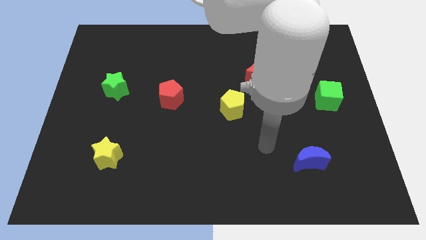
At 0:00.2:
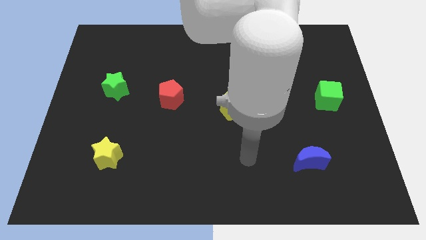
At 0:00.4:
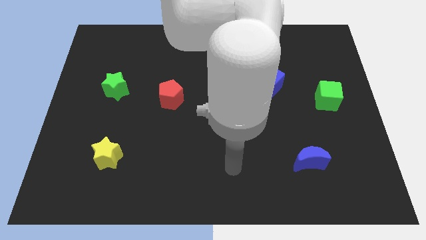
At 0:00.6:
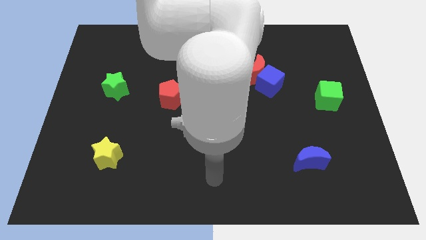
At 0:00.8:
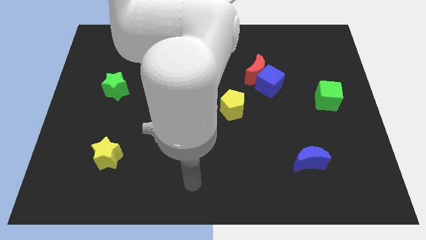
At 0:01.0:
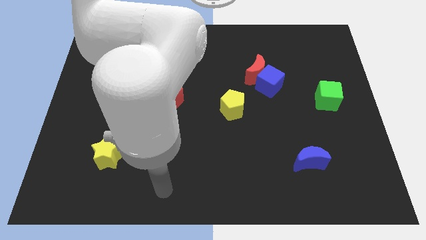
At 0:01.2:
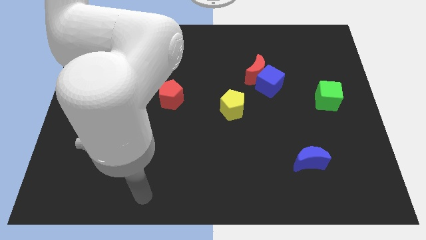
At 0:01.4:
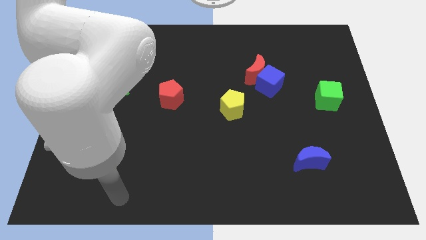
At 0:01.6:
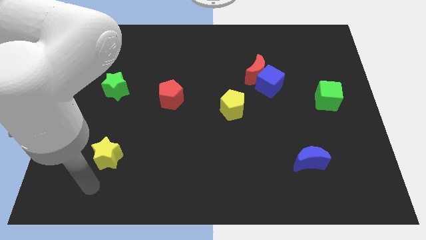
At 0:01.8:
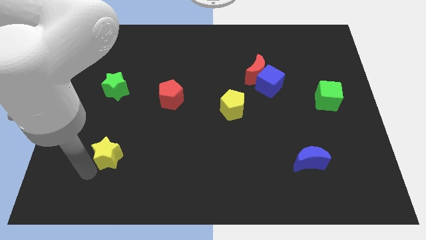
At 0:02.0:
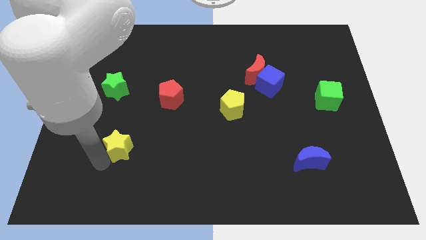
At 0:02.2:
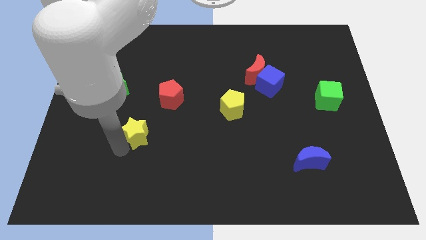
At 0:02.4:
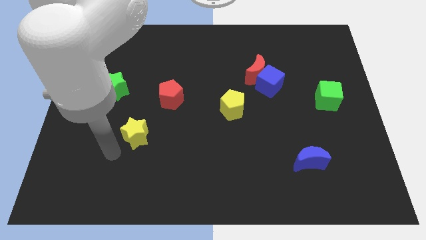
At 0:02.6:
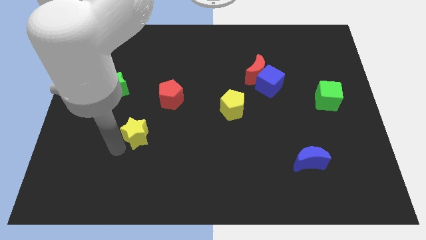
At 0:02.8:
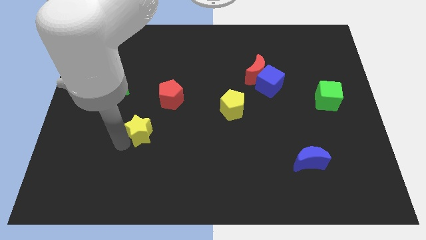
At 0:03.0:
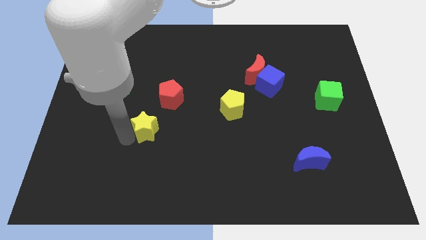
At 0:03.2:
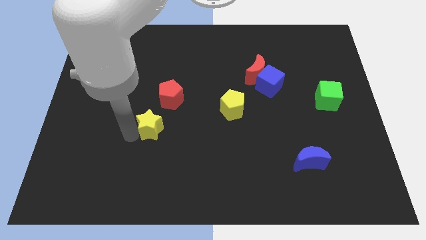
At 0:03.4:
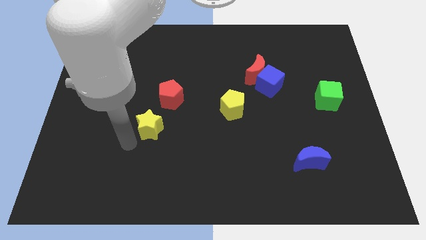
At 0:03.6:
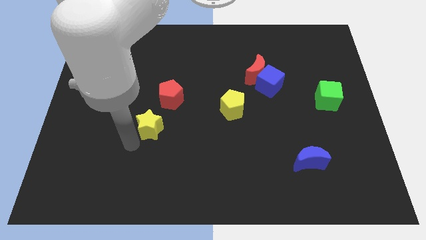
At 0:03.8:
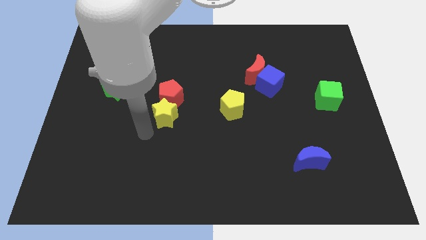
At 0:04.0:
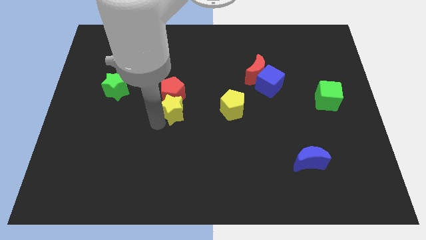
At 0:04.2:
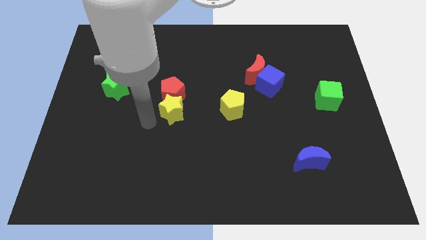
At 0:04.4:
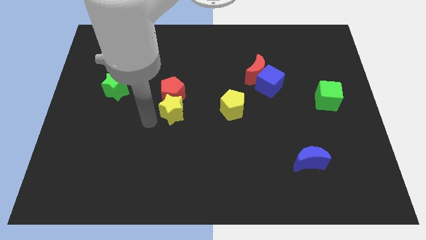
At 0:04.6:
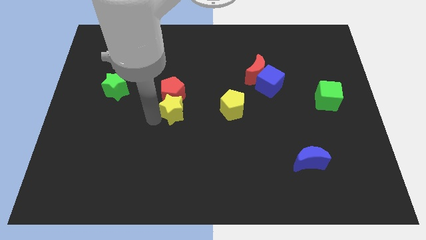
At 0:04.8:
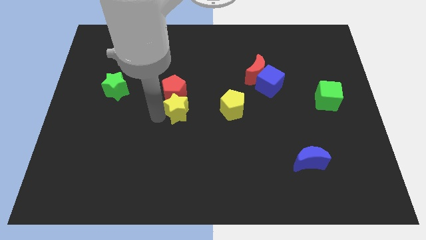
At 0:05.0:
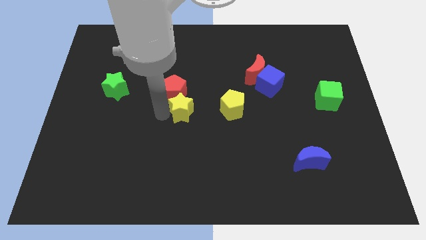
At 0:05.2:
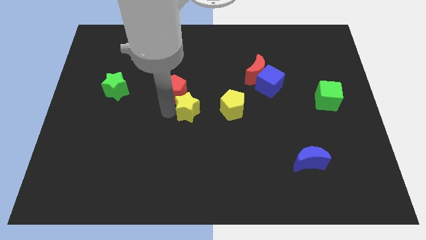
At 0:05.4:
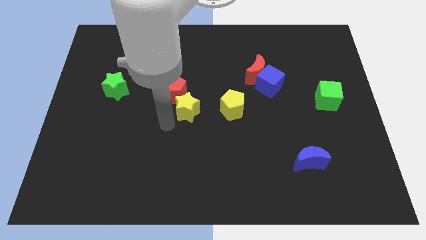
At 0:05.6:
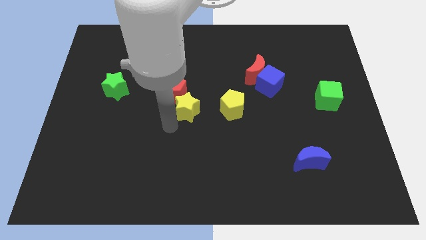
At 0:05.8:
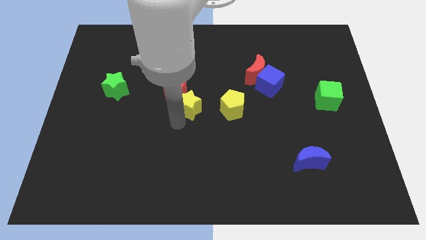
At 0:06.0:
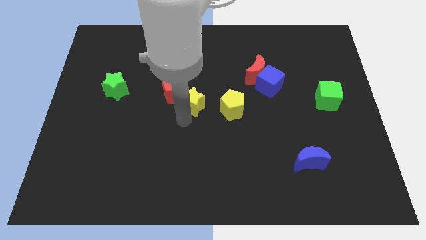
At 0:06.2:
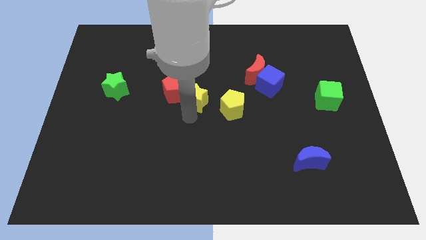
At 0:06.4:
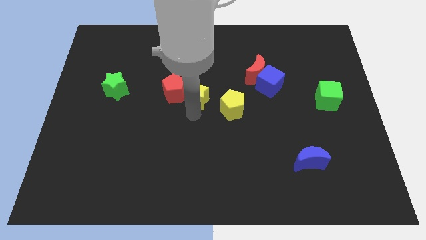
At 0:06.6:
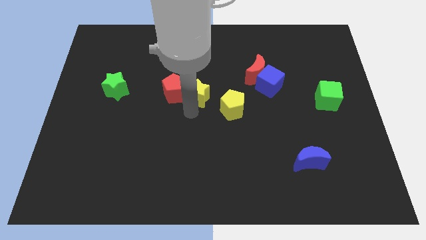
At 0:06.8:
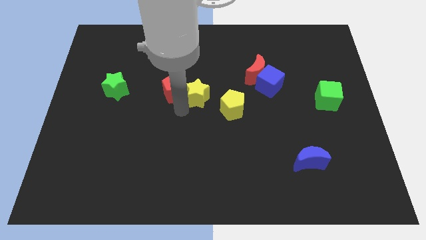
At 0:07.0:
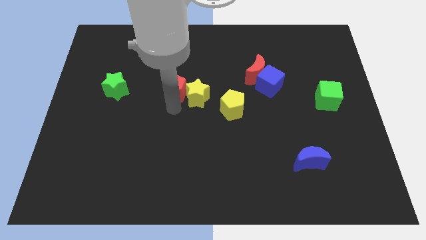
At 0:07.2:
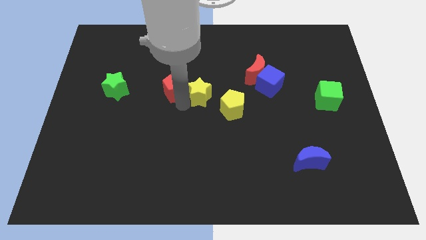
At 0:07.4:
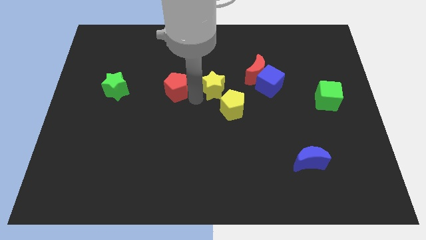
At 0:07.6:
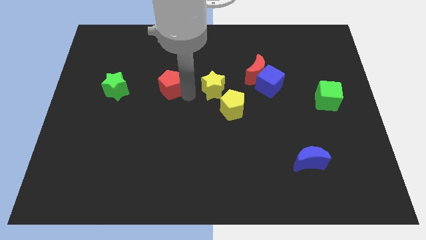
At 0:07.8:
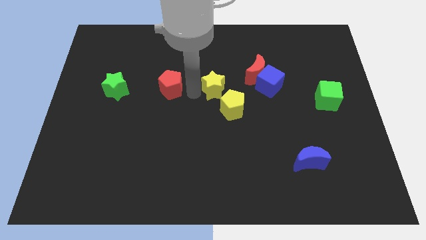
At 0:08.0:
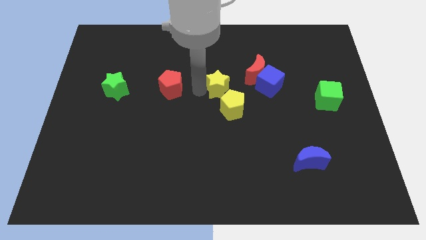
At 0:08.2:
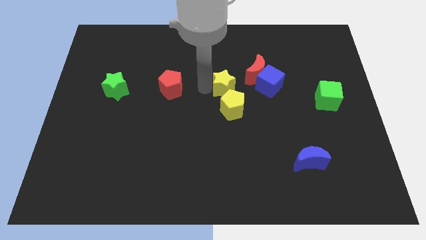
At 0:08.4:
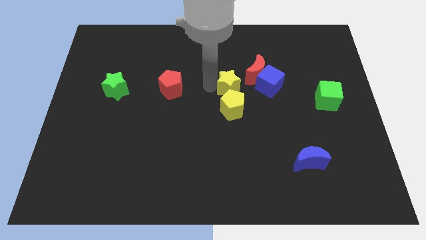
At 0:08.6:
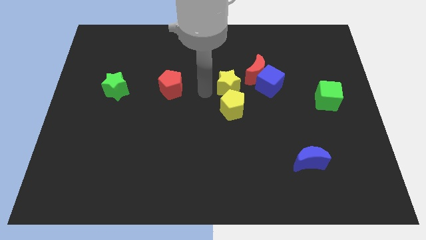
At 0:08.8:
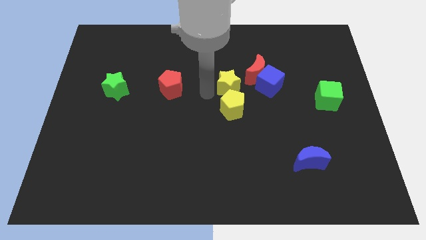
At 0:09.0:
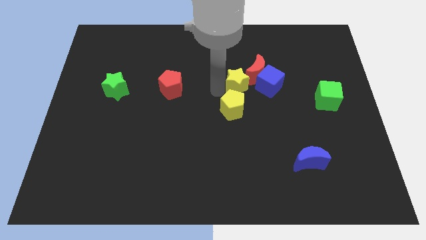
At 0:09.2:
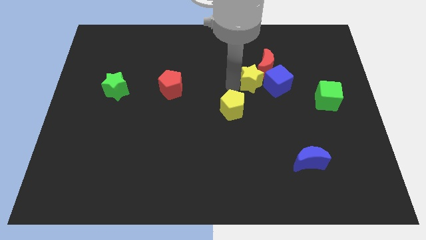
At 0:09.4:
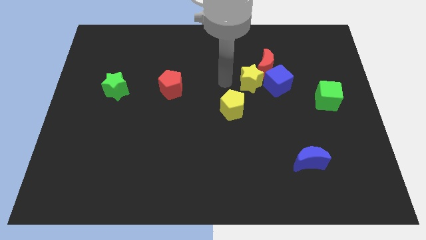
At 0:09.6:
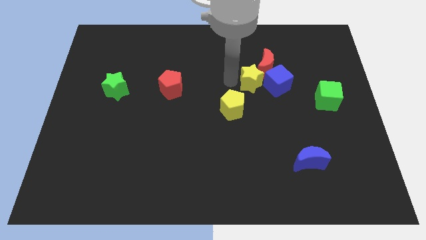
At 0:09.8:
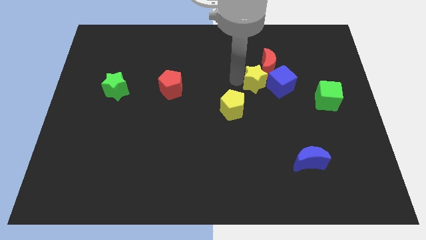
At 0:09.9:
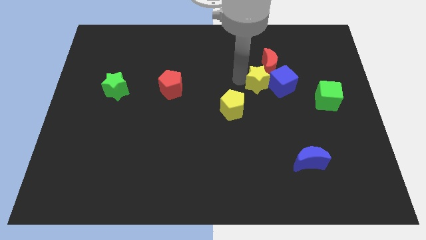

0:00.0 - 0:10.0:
put the yellow star towards the blue cube

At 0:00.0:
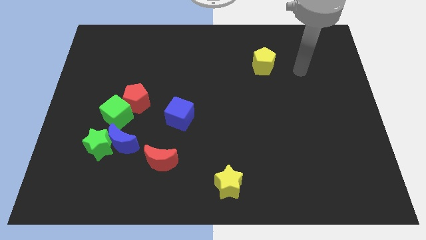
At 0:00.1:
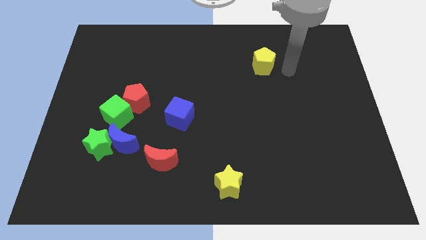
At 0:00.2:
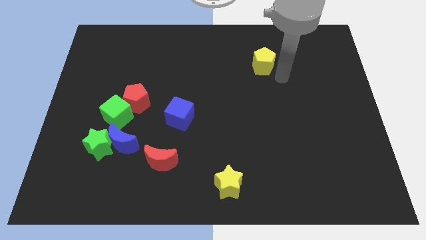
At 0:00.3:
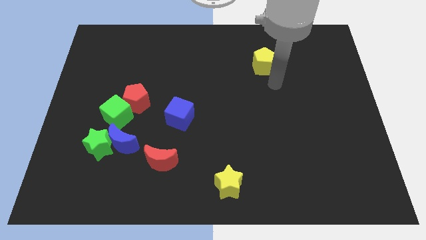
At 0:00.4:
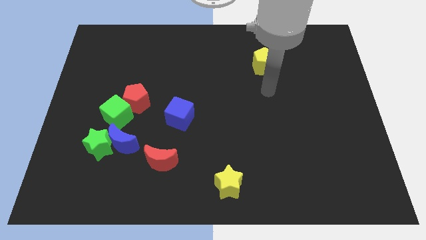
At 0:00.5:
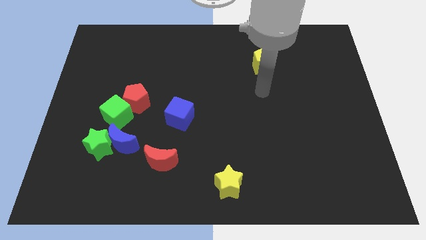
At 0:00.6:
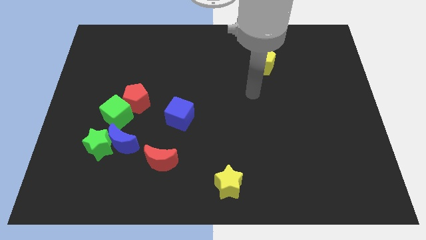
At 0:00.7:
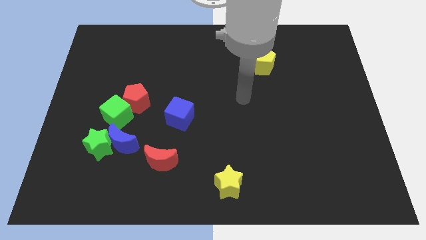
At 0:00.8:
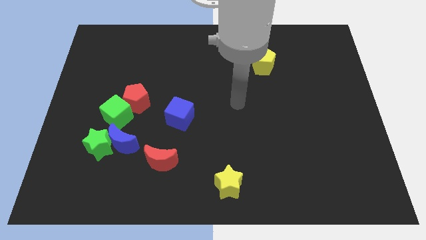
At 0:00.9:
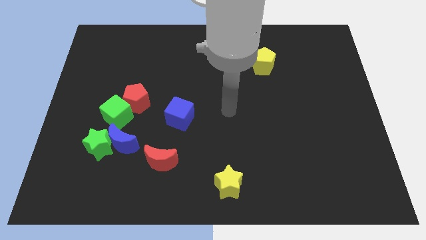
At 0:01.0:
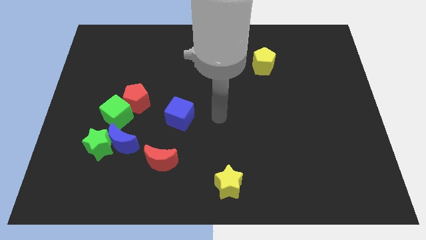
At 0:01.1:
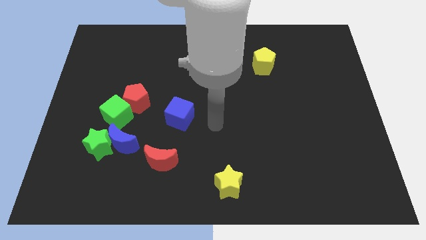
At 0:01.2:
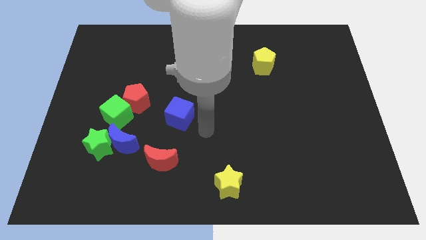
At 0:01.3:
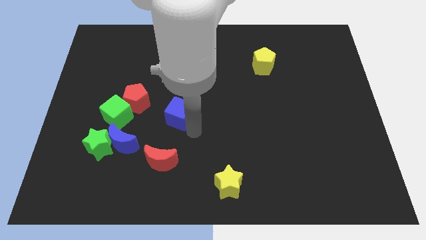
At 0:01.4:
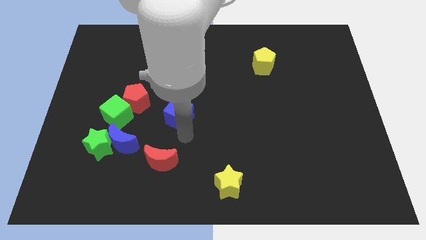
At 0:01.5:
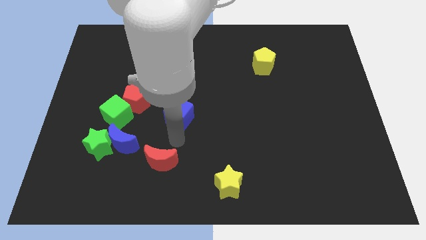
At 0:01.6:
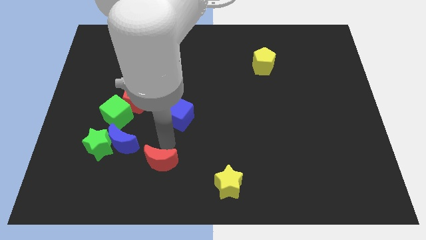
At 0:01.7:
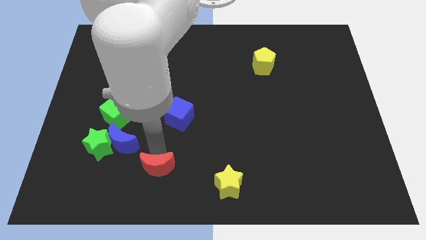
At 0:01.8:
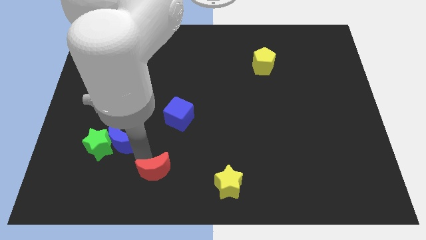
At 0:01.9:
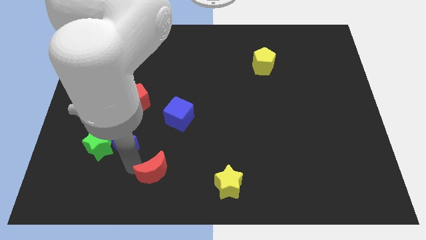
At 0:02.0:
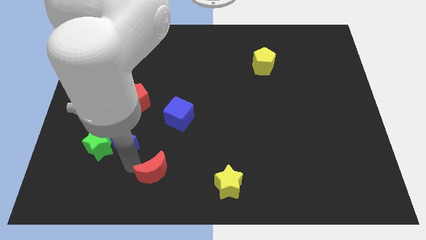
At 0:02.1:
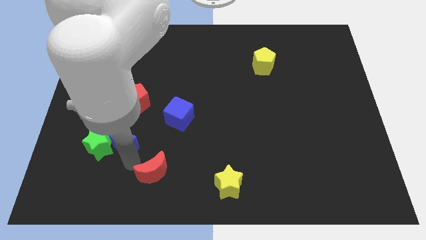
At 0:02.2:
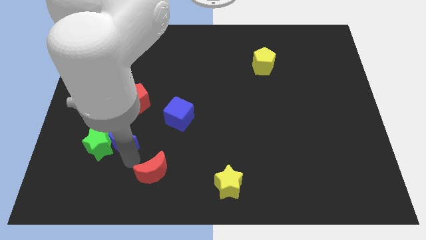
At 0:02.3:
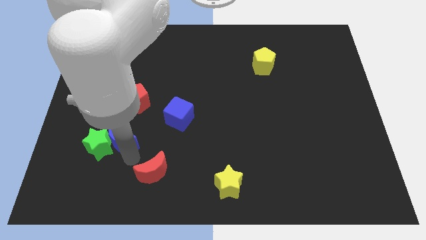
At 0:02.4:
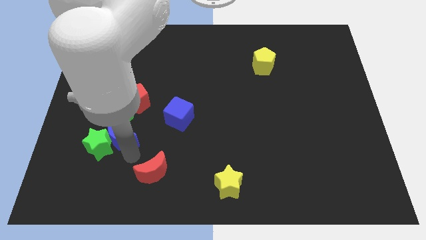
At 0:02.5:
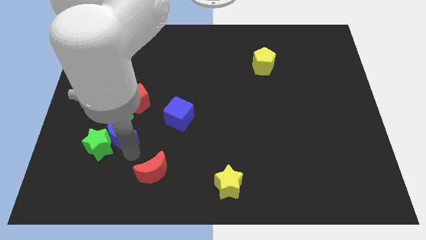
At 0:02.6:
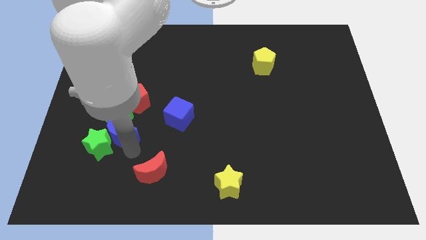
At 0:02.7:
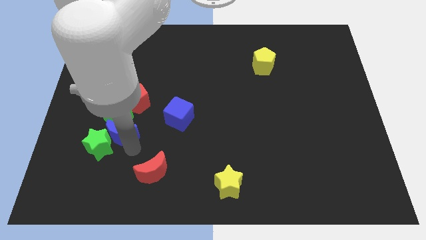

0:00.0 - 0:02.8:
put the blue moon to the green cube

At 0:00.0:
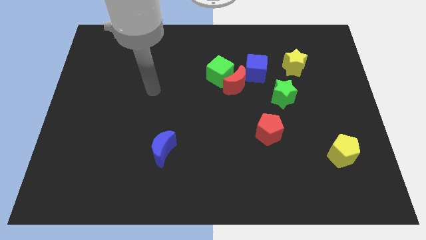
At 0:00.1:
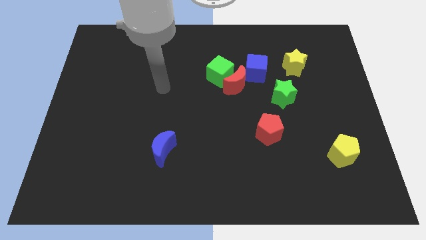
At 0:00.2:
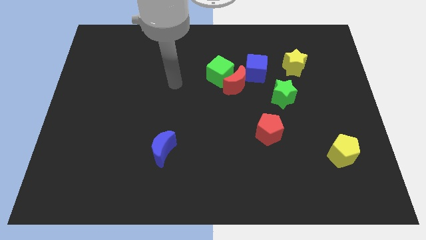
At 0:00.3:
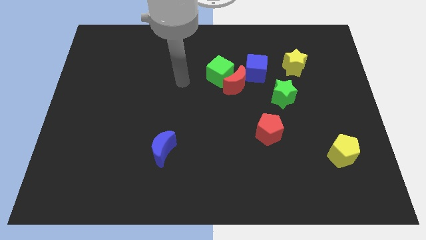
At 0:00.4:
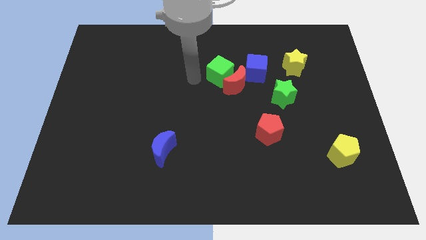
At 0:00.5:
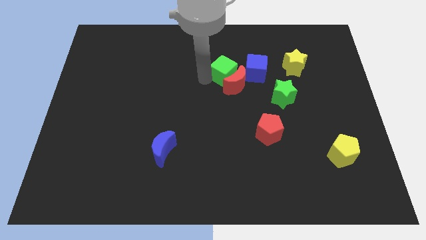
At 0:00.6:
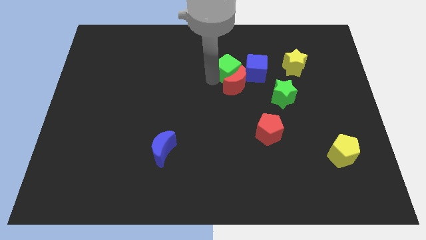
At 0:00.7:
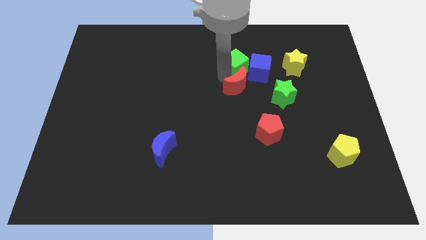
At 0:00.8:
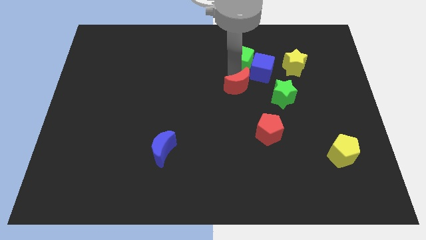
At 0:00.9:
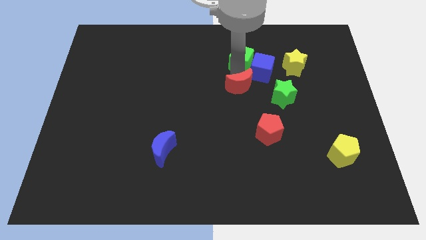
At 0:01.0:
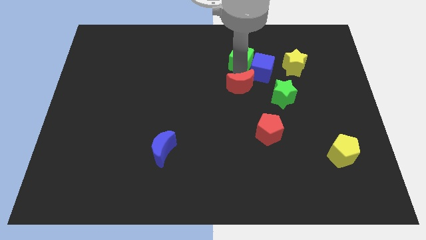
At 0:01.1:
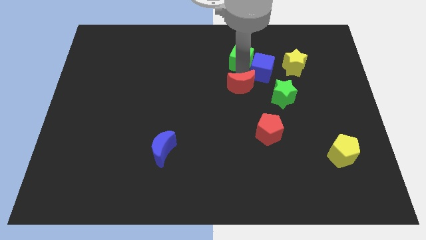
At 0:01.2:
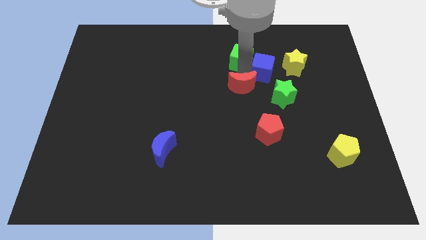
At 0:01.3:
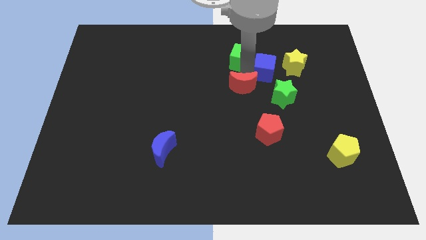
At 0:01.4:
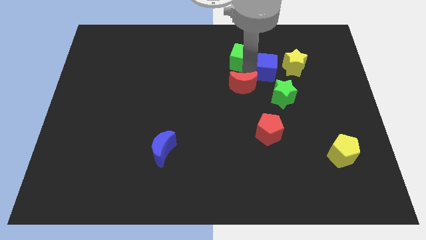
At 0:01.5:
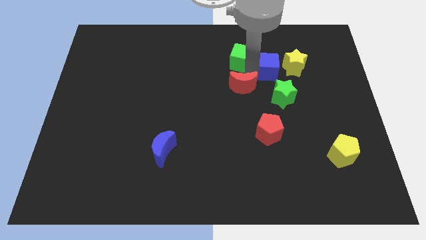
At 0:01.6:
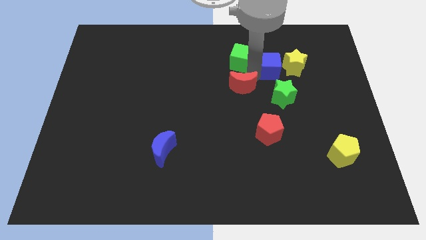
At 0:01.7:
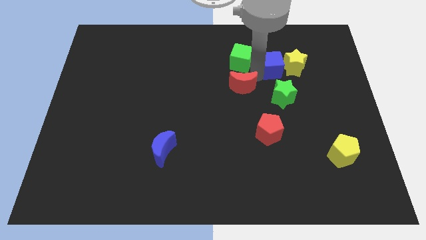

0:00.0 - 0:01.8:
push the blue cube next to the yellow star
